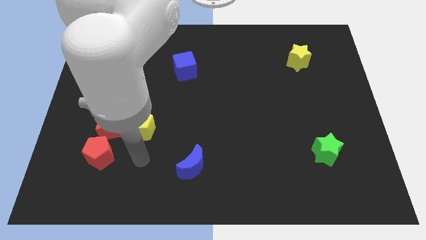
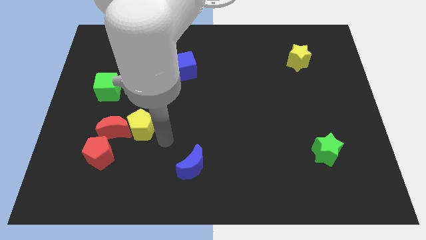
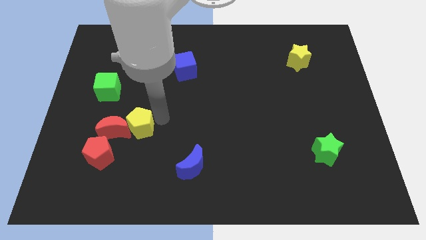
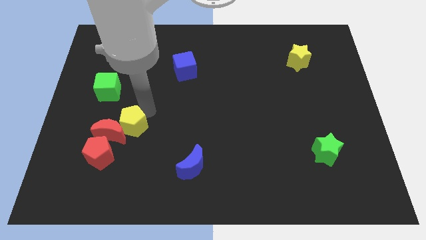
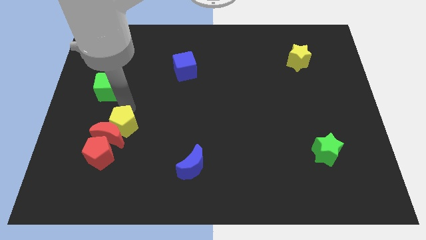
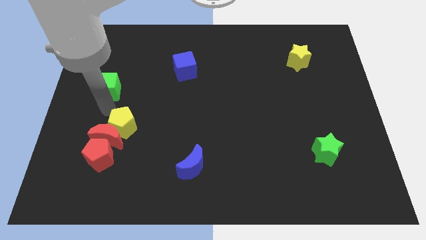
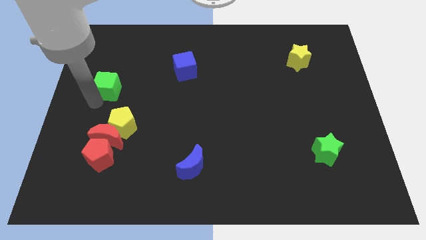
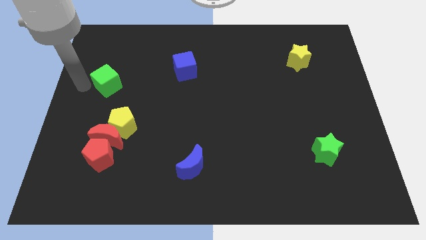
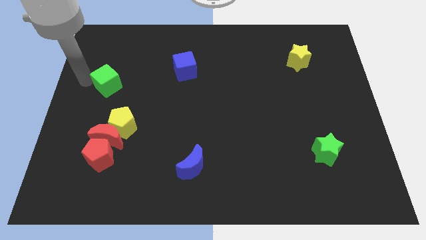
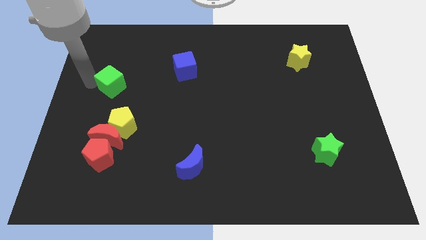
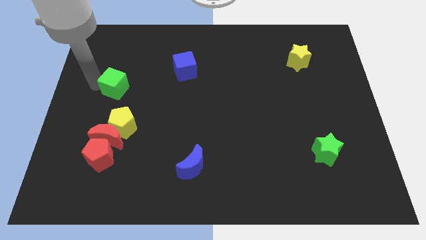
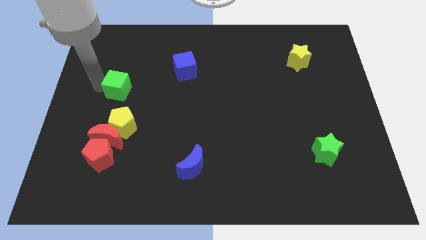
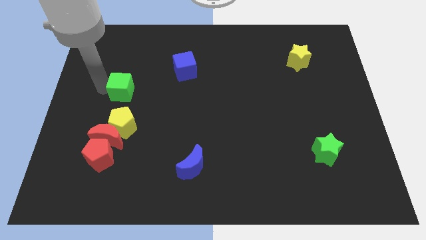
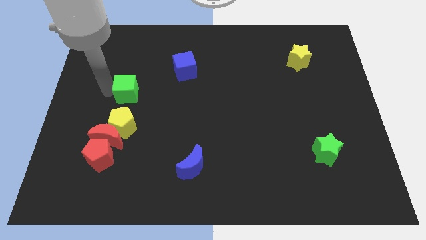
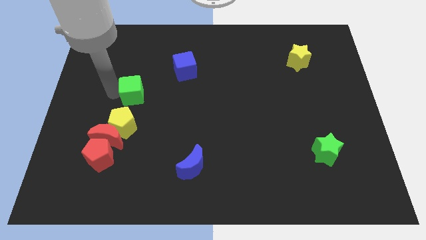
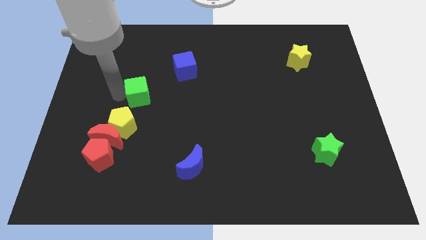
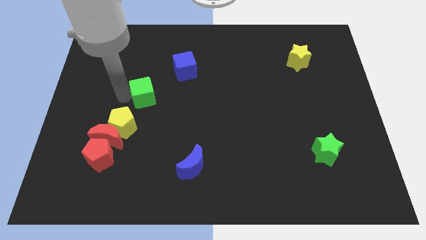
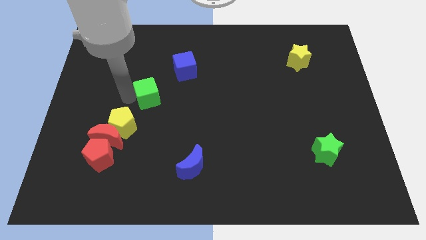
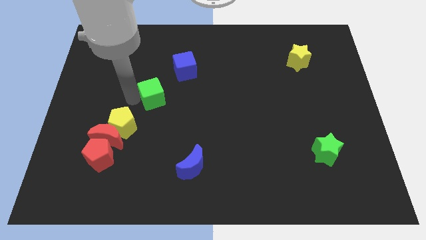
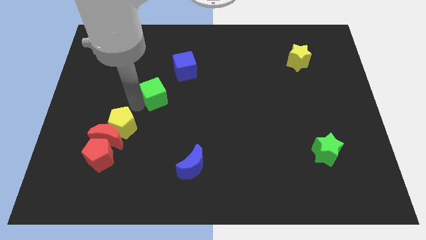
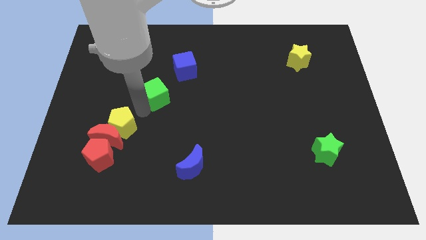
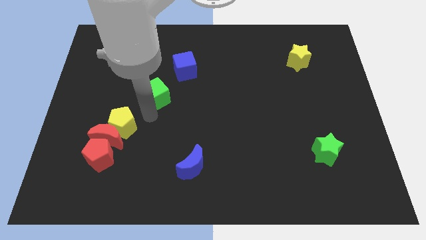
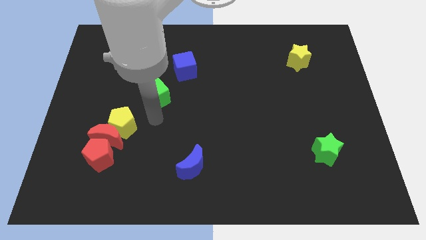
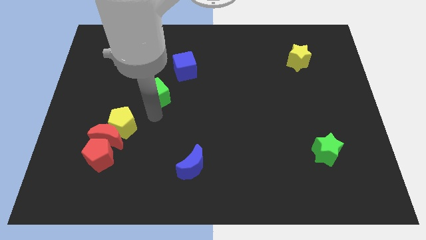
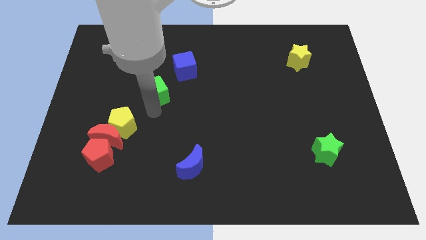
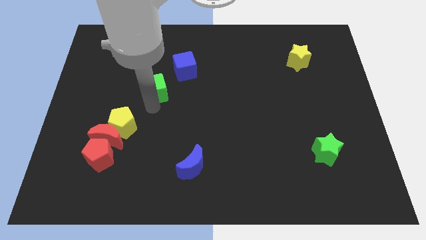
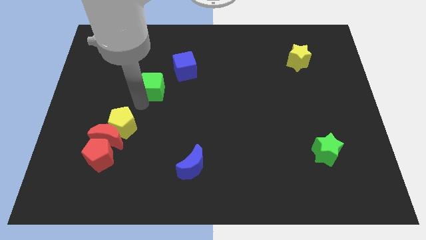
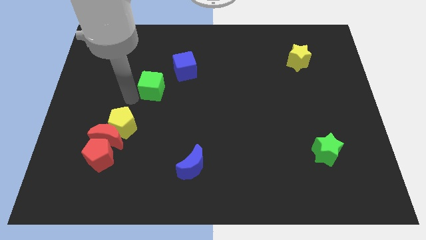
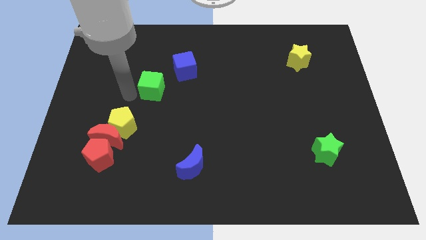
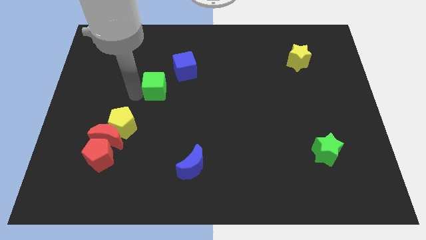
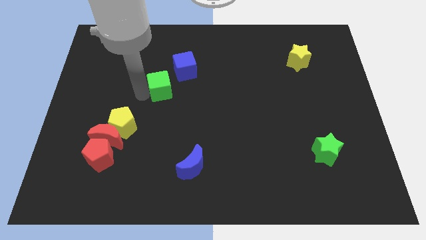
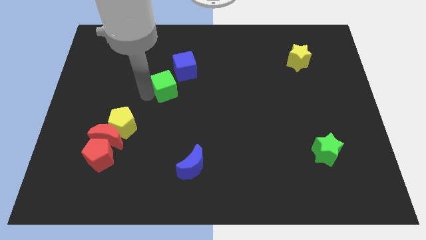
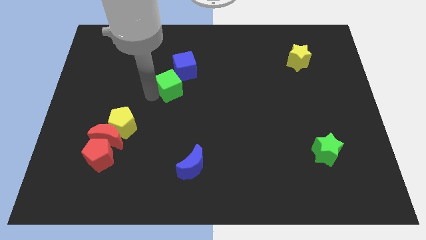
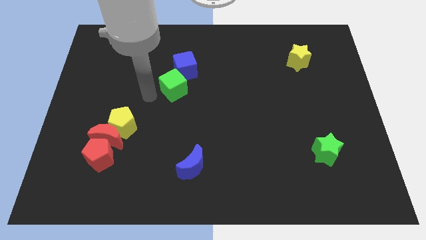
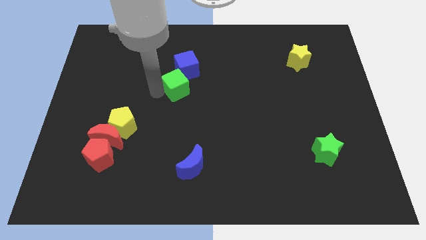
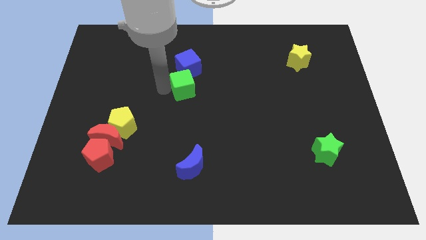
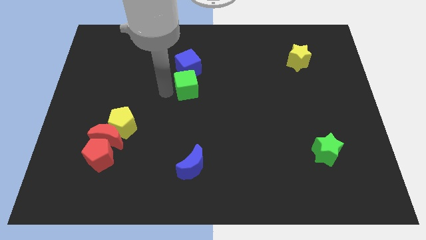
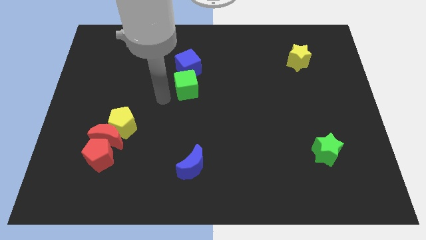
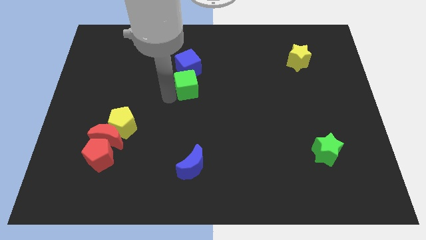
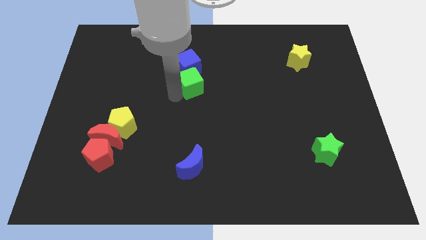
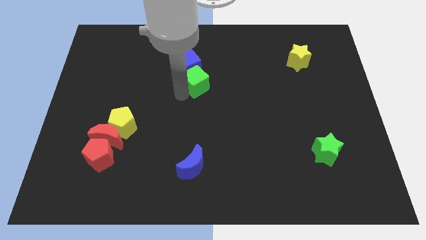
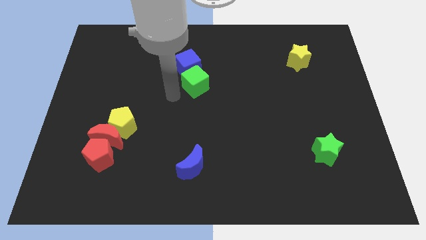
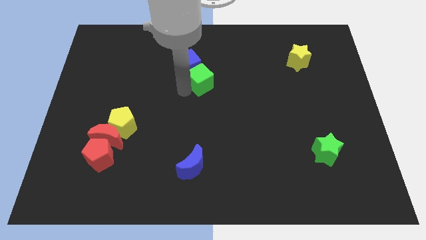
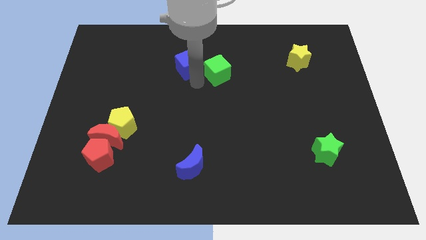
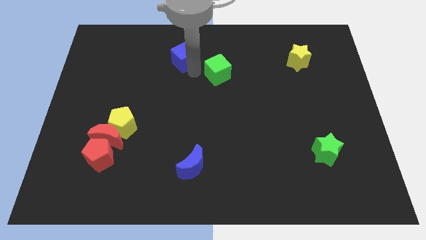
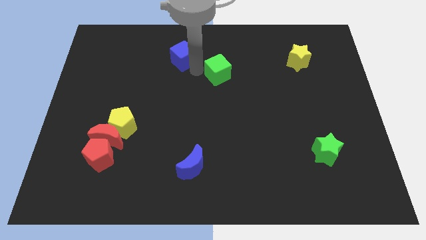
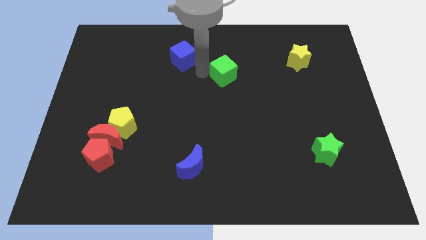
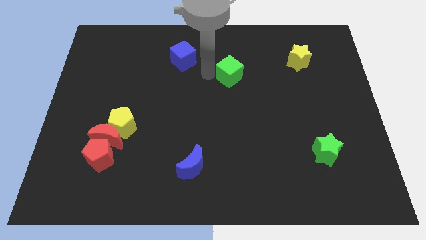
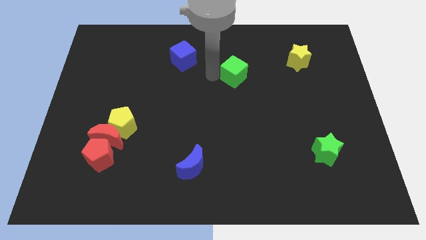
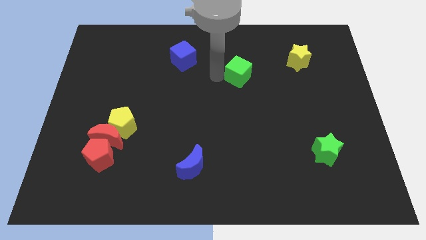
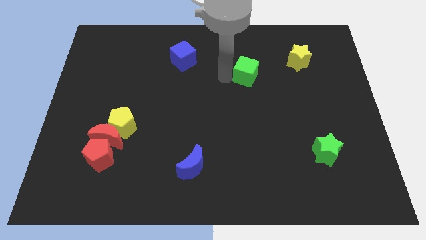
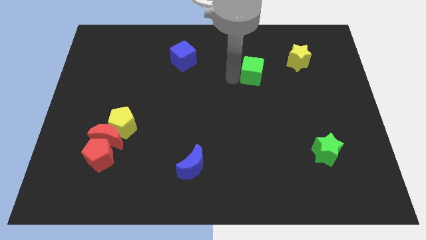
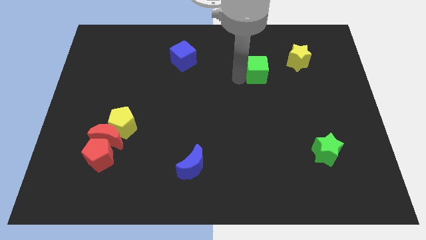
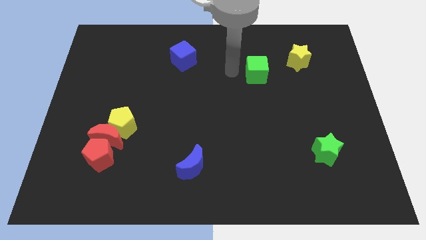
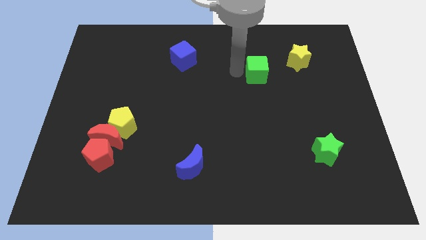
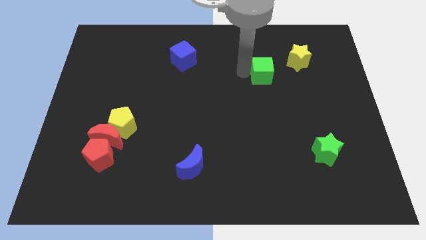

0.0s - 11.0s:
put the green cube to the bottom left side of the yellow star

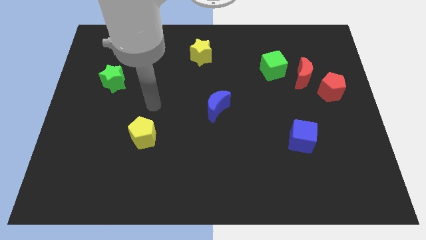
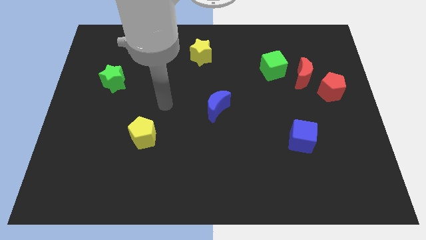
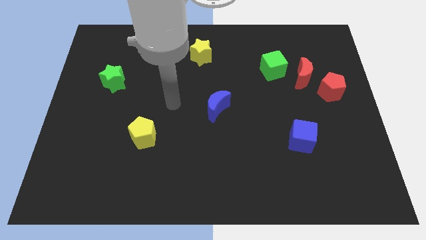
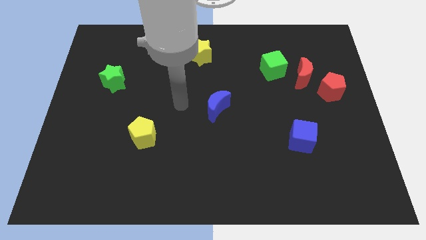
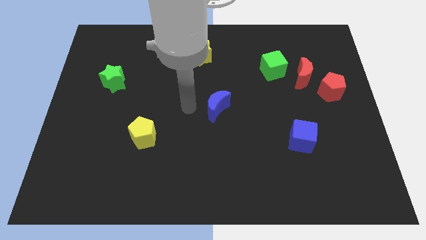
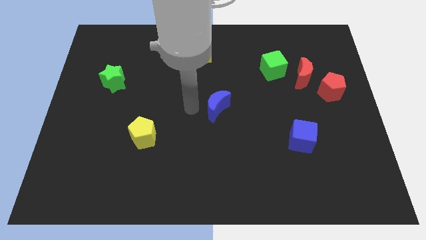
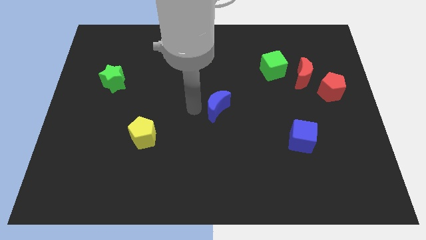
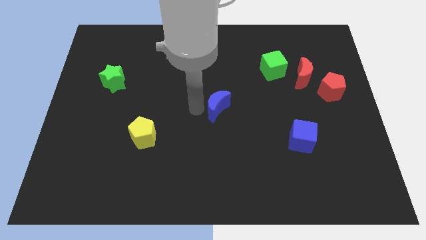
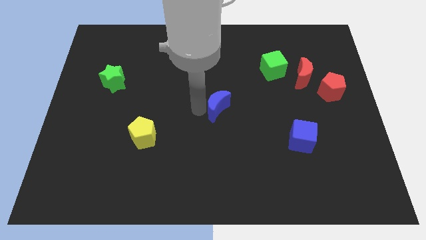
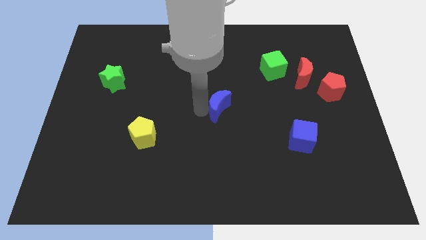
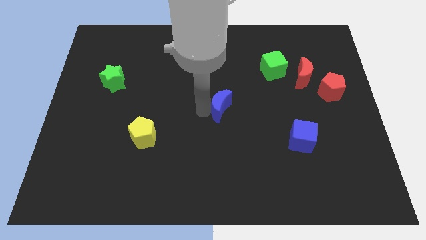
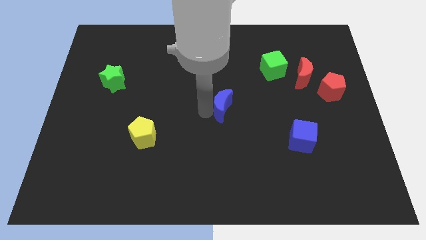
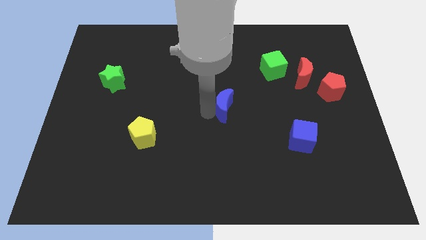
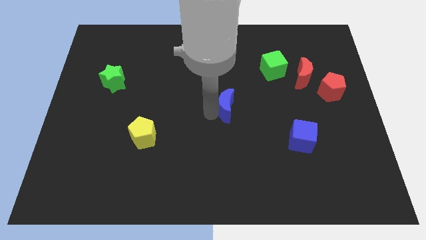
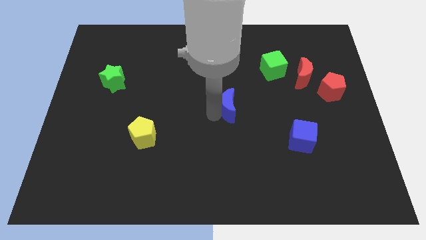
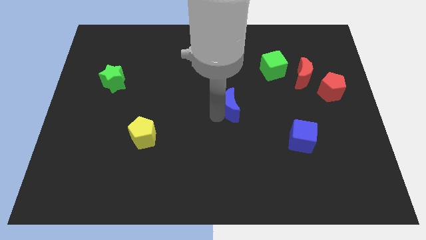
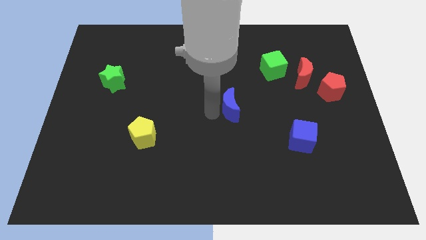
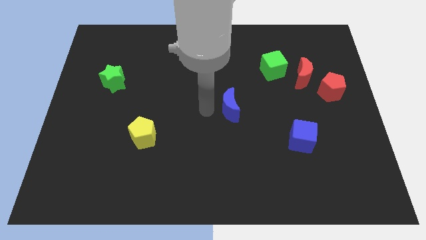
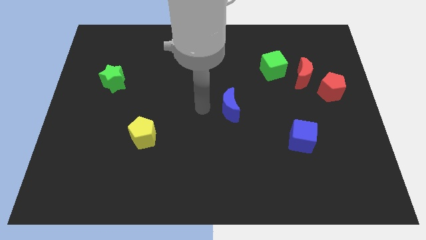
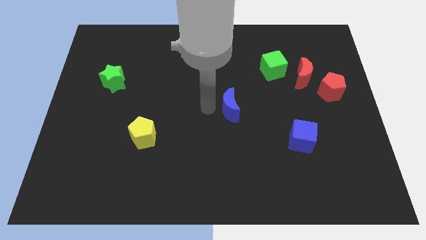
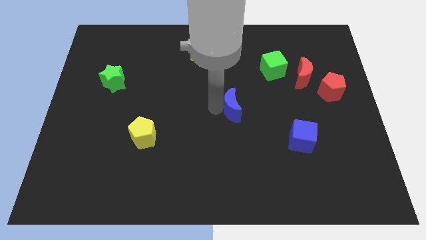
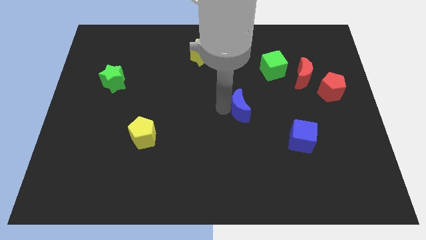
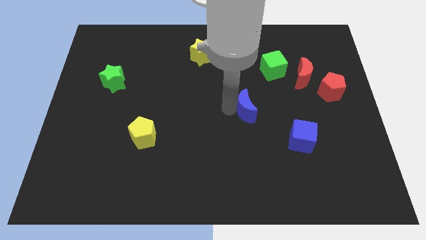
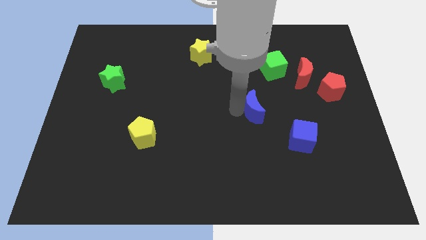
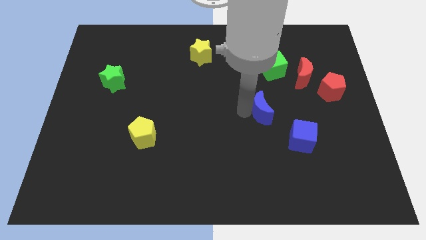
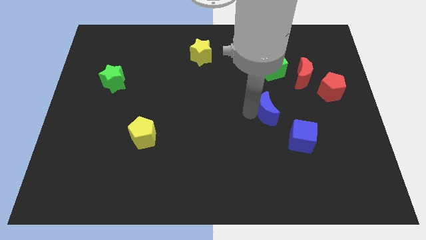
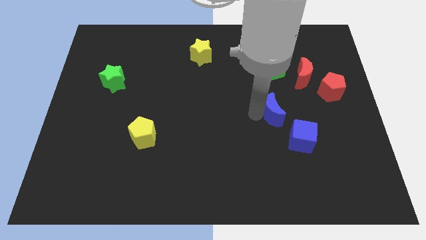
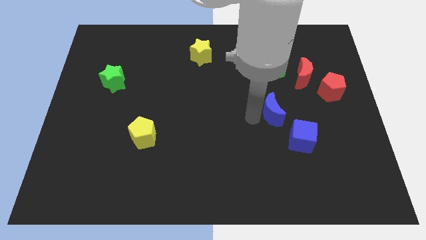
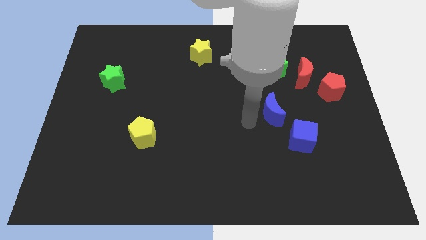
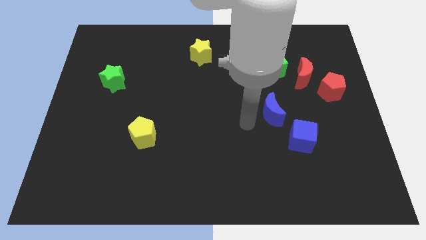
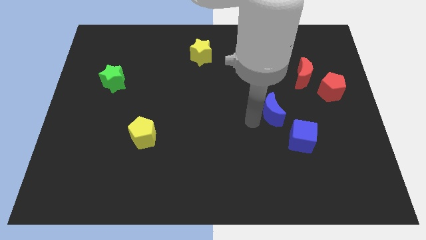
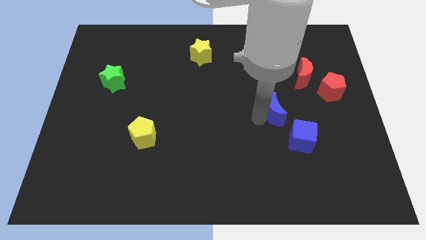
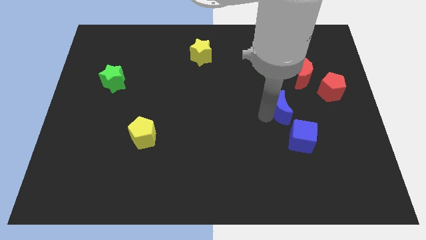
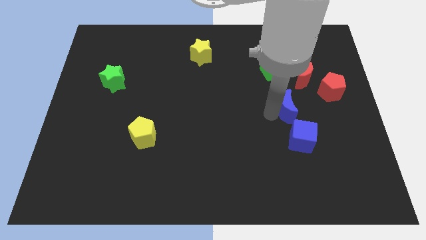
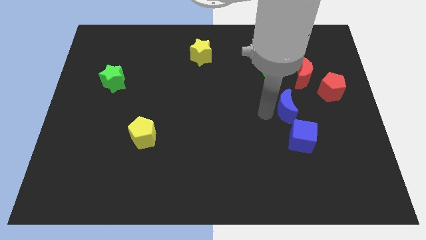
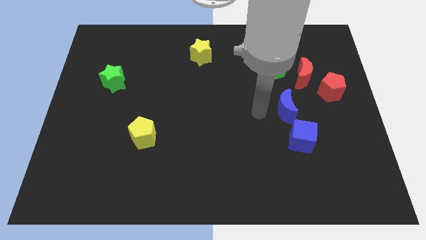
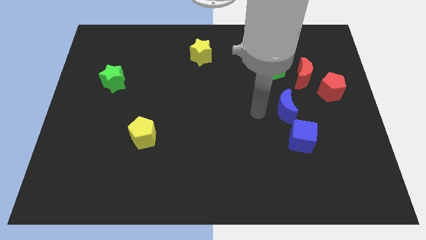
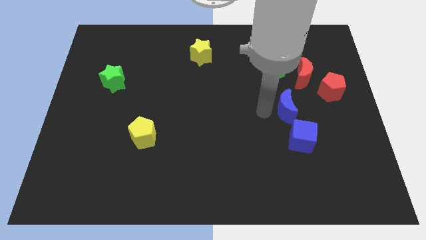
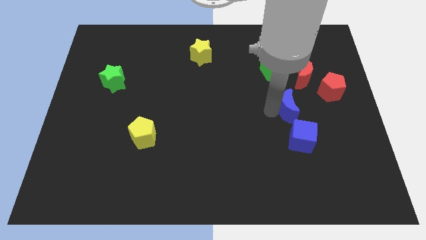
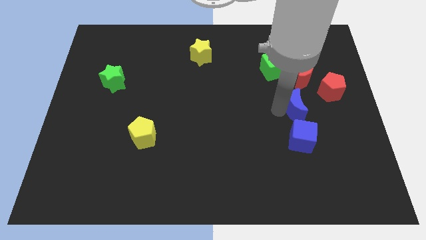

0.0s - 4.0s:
push the blue moon to the bottom left side of the red pentagon
